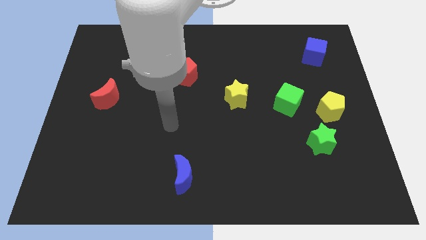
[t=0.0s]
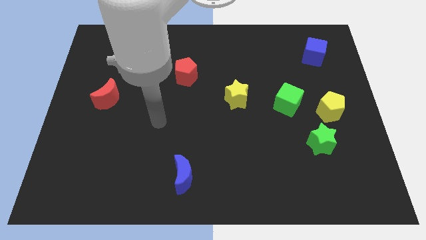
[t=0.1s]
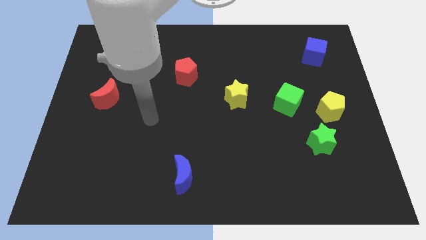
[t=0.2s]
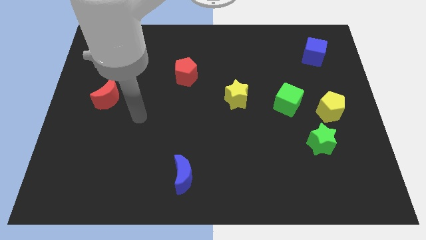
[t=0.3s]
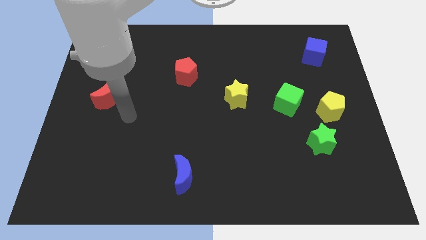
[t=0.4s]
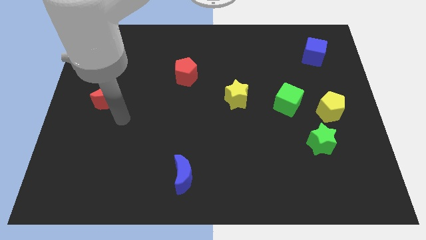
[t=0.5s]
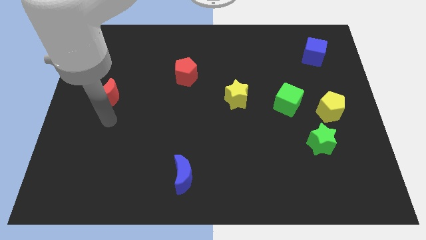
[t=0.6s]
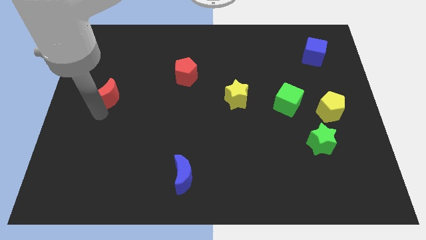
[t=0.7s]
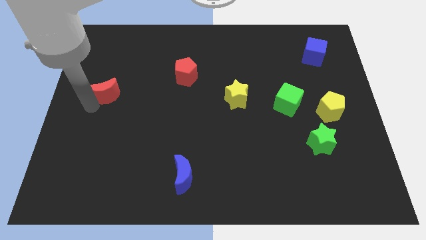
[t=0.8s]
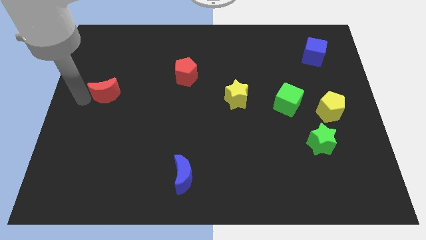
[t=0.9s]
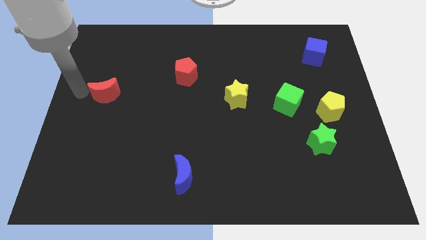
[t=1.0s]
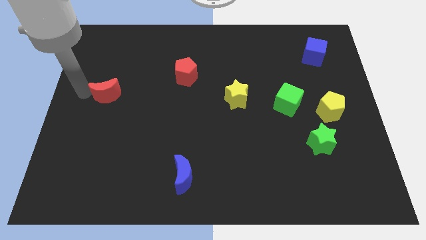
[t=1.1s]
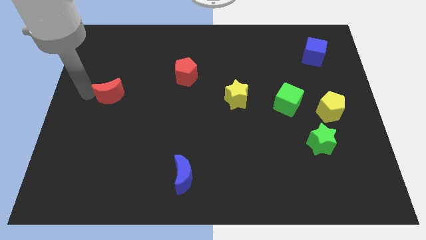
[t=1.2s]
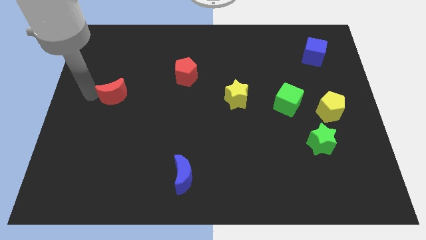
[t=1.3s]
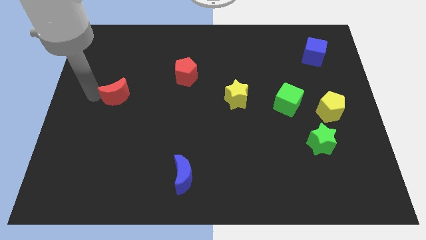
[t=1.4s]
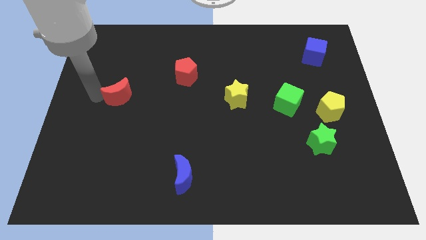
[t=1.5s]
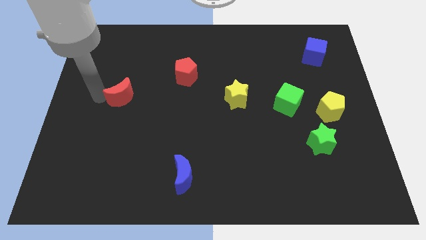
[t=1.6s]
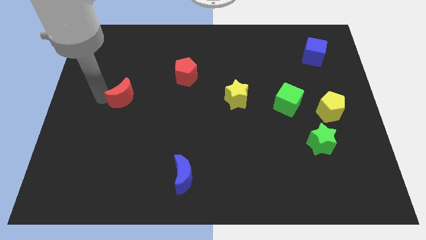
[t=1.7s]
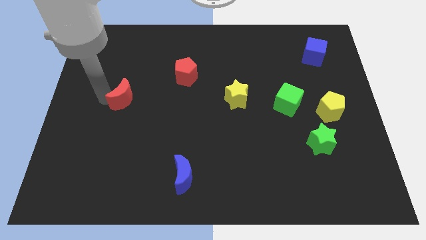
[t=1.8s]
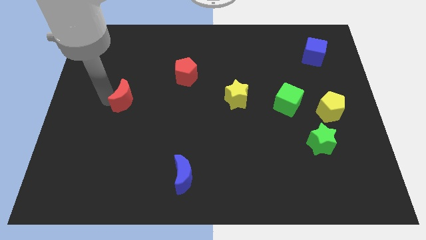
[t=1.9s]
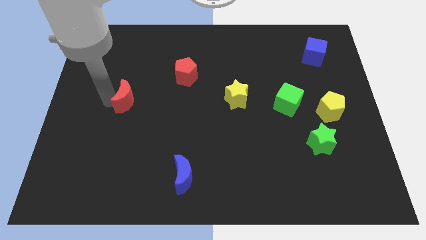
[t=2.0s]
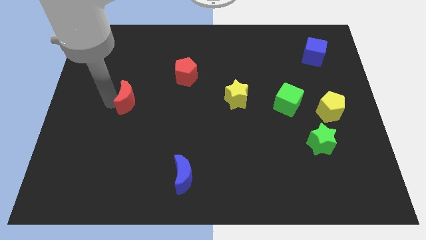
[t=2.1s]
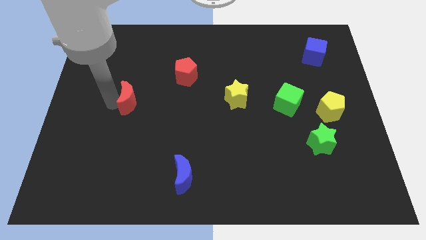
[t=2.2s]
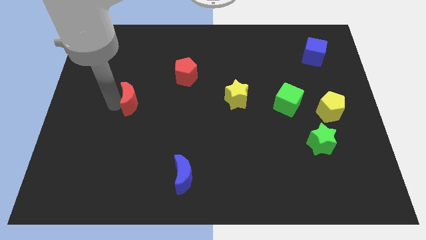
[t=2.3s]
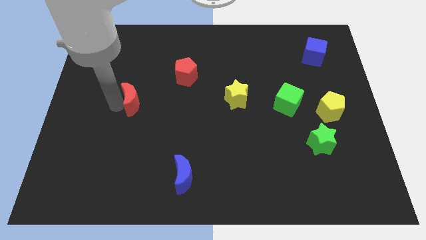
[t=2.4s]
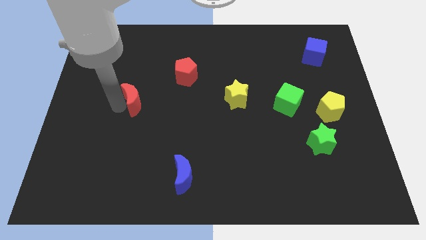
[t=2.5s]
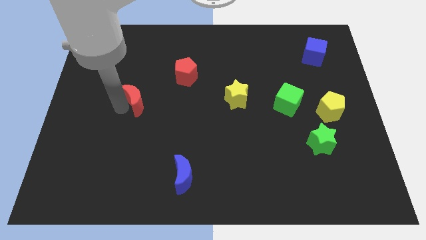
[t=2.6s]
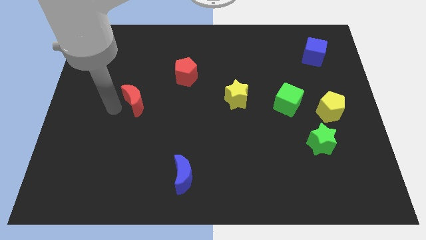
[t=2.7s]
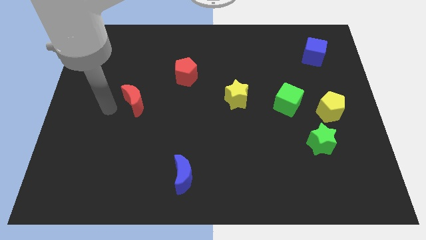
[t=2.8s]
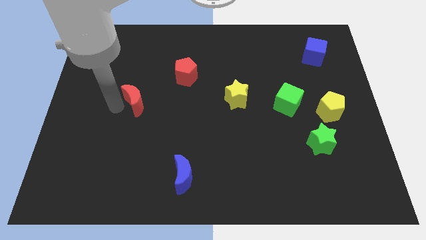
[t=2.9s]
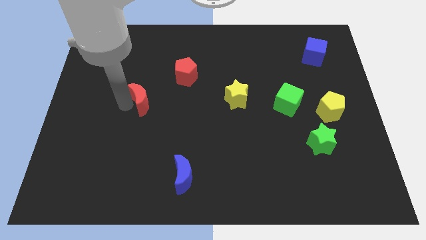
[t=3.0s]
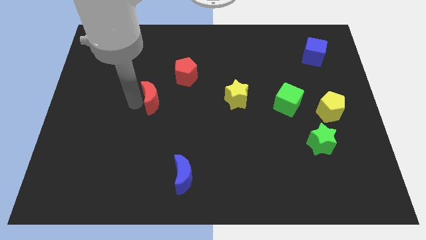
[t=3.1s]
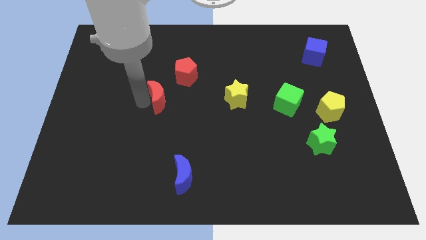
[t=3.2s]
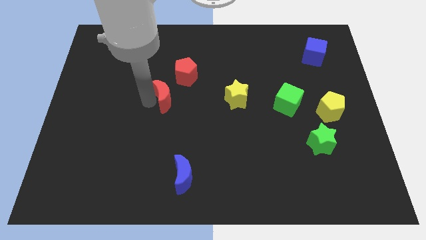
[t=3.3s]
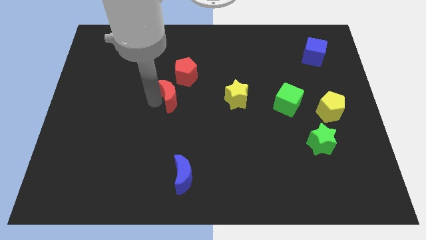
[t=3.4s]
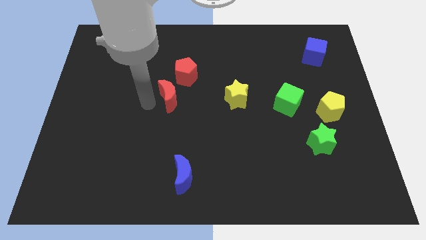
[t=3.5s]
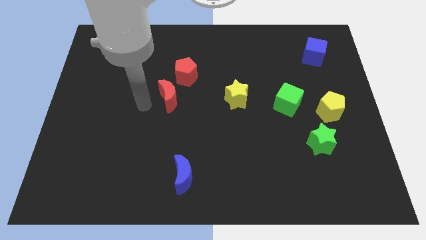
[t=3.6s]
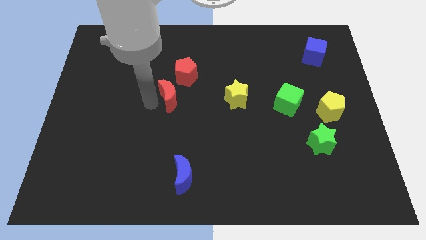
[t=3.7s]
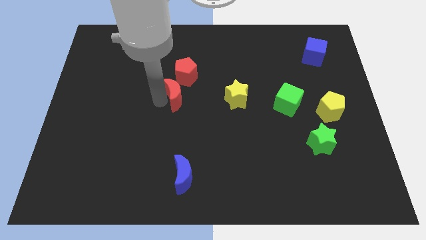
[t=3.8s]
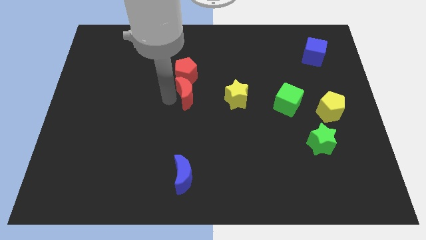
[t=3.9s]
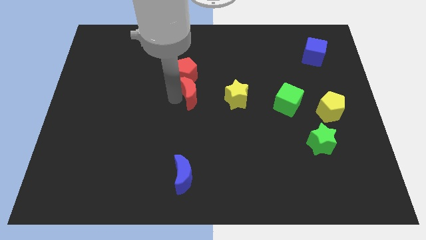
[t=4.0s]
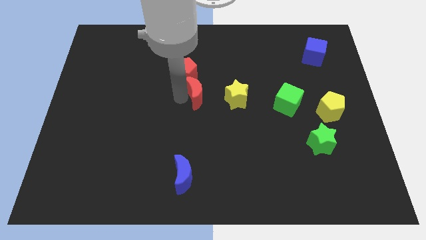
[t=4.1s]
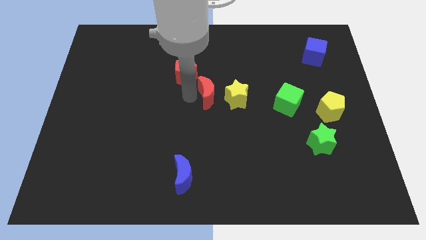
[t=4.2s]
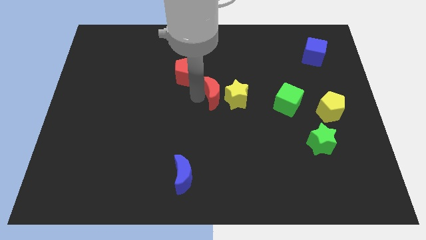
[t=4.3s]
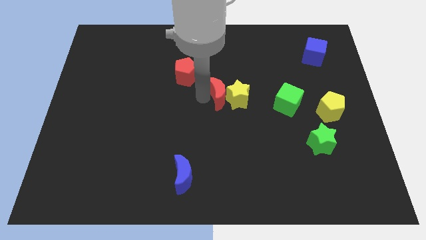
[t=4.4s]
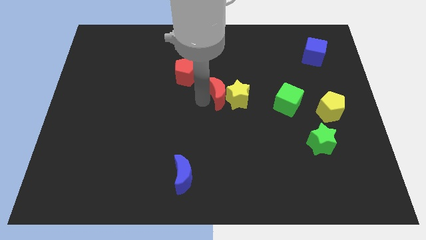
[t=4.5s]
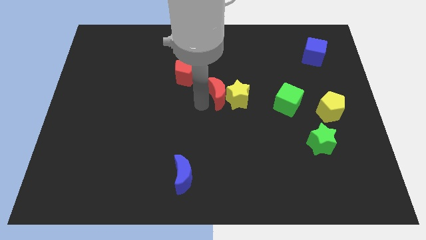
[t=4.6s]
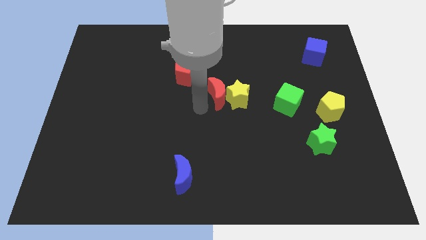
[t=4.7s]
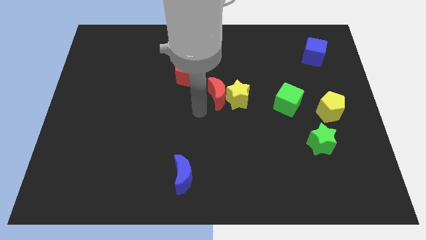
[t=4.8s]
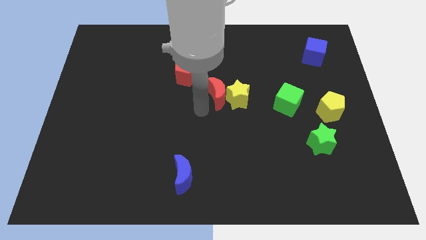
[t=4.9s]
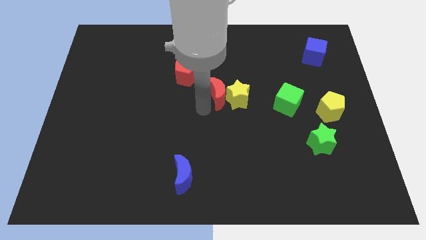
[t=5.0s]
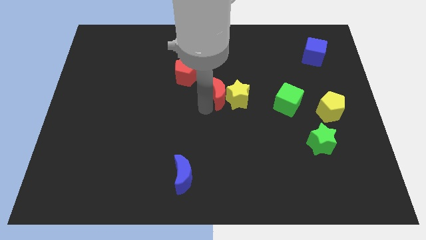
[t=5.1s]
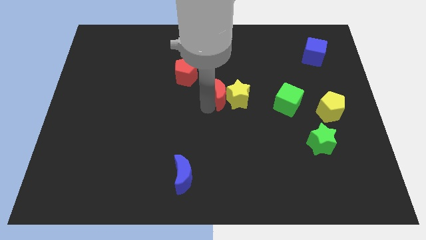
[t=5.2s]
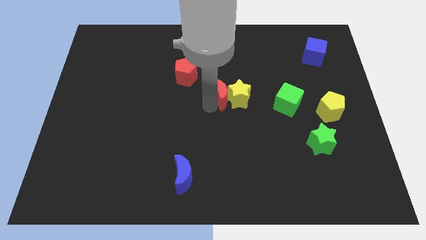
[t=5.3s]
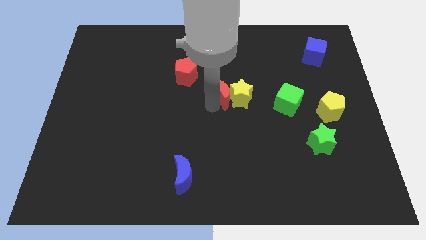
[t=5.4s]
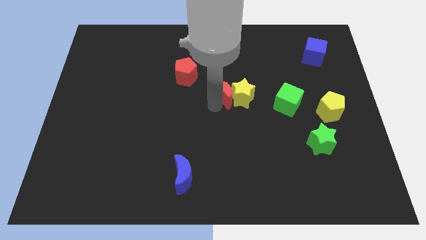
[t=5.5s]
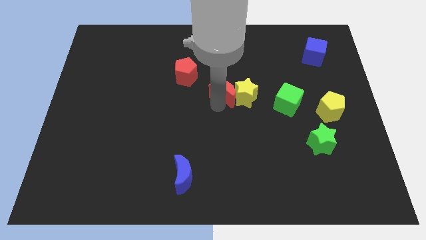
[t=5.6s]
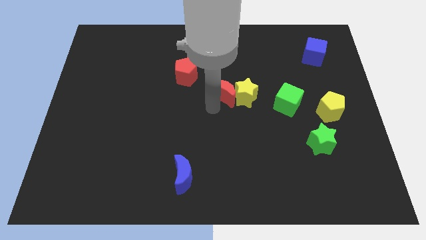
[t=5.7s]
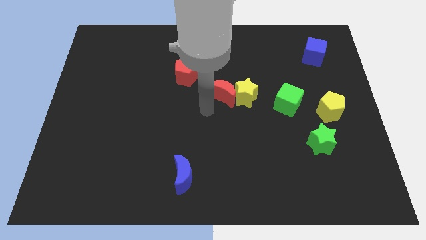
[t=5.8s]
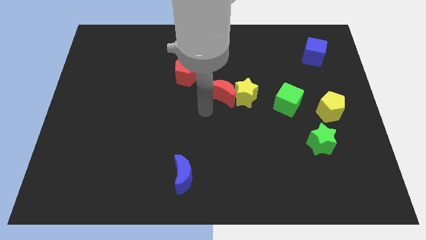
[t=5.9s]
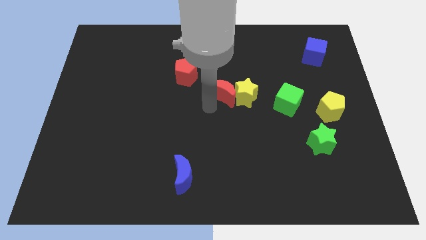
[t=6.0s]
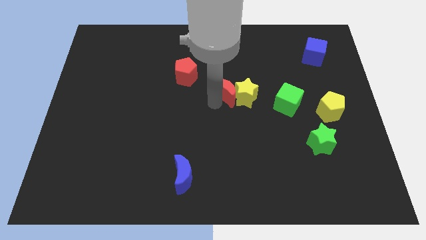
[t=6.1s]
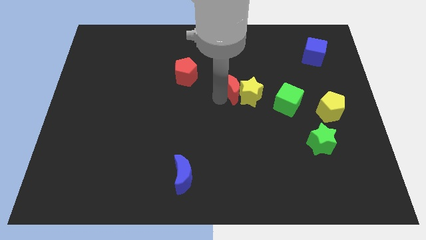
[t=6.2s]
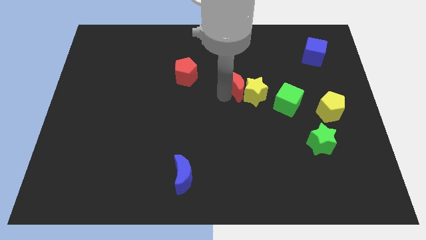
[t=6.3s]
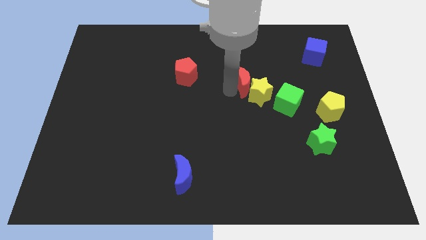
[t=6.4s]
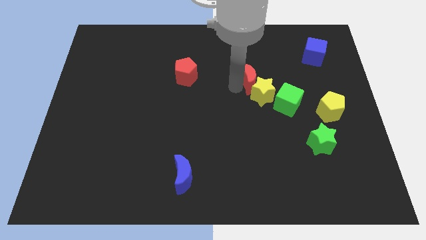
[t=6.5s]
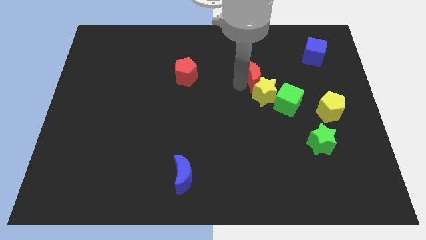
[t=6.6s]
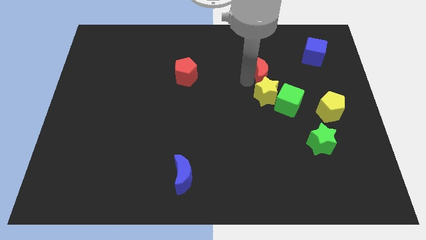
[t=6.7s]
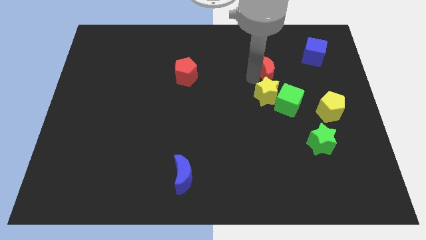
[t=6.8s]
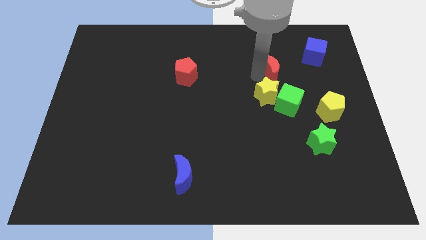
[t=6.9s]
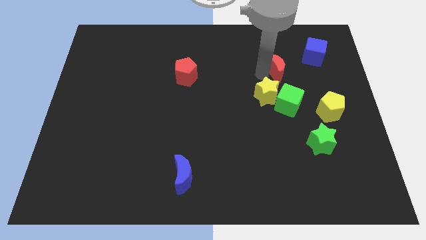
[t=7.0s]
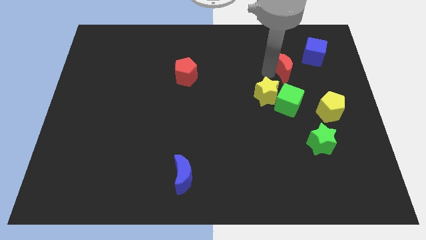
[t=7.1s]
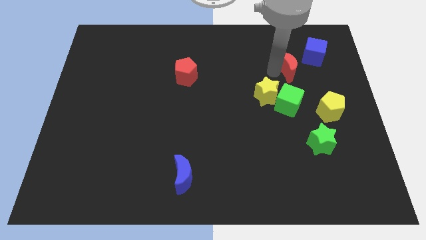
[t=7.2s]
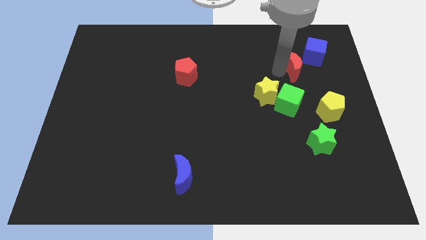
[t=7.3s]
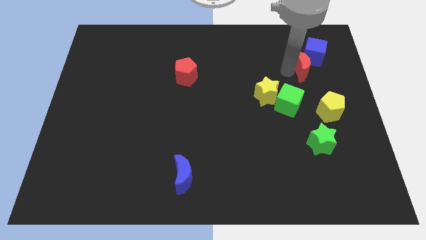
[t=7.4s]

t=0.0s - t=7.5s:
slide the red moon next to the blue cube
